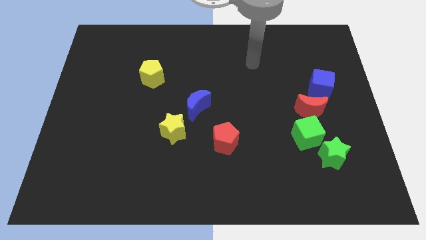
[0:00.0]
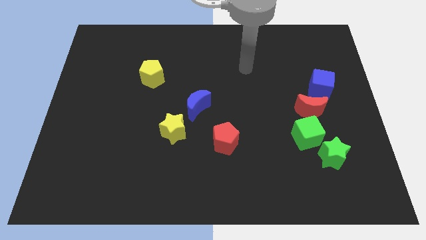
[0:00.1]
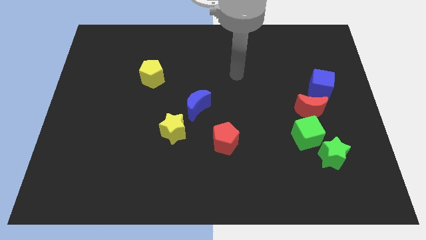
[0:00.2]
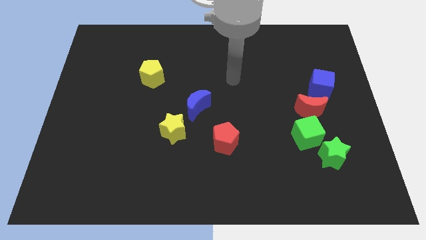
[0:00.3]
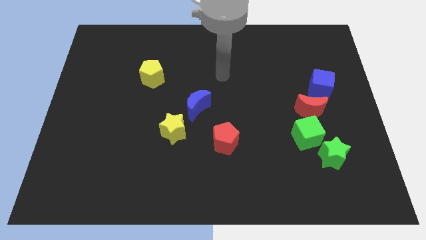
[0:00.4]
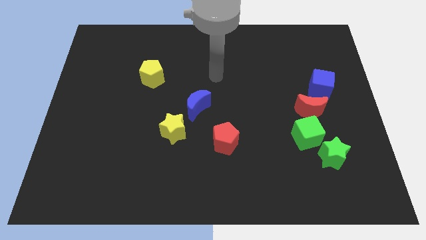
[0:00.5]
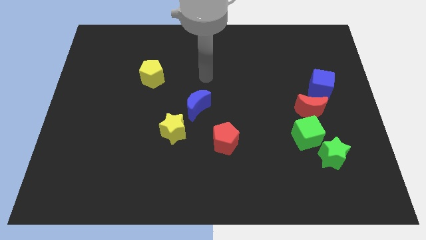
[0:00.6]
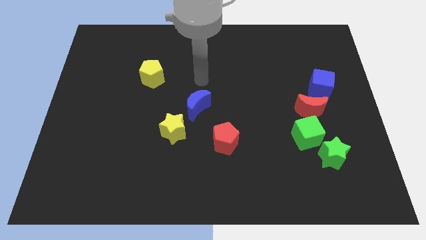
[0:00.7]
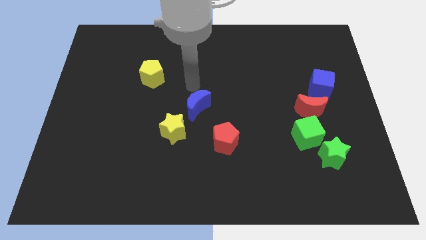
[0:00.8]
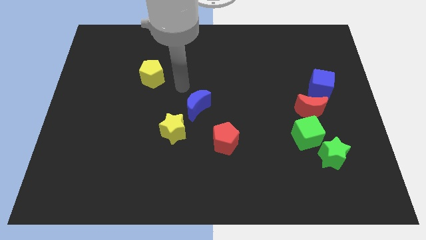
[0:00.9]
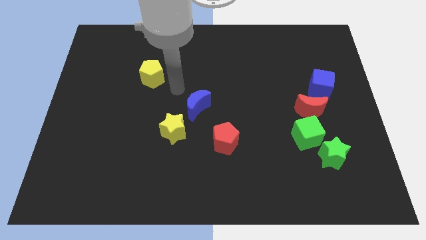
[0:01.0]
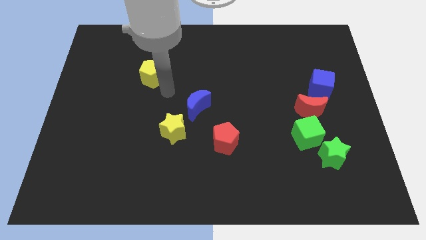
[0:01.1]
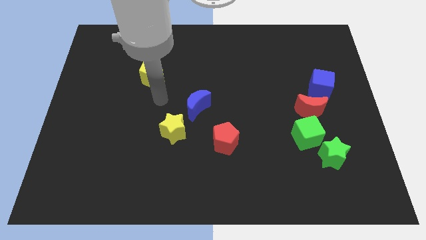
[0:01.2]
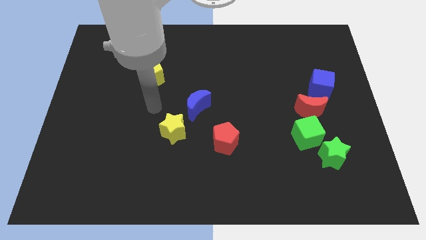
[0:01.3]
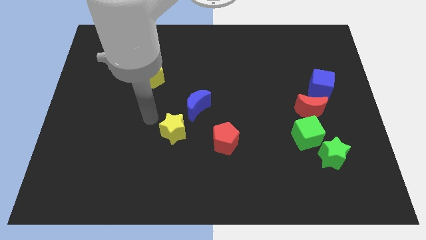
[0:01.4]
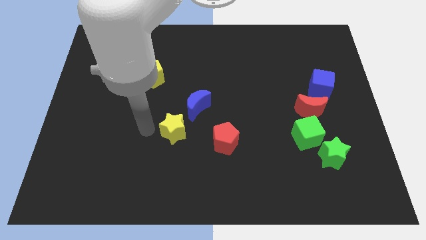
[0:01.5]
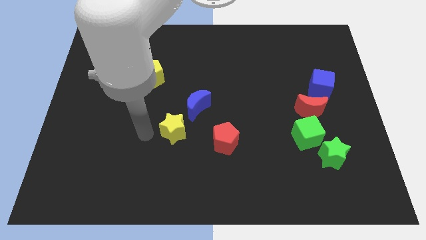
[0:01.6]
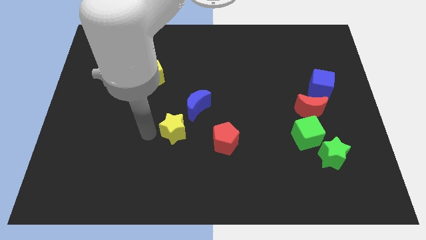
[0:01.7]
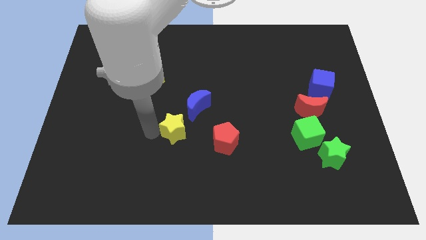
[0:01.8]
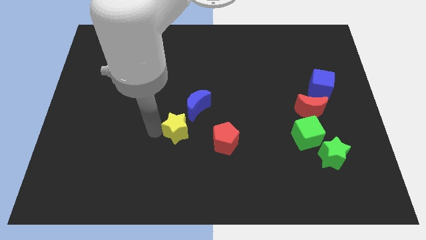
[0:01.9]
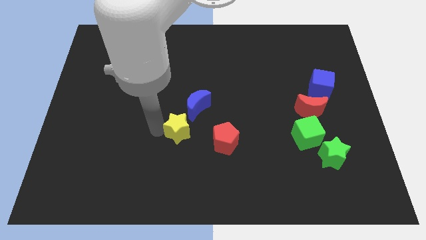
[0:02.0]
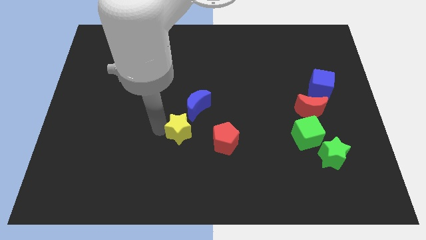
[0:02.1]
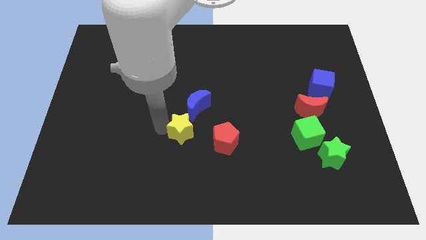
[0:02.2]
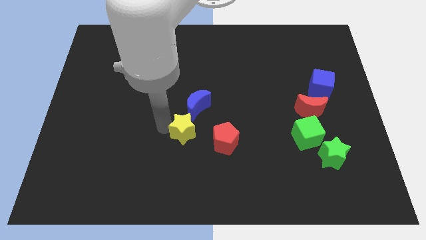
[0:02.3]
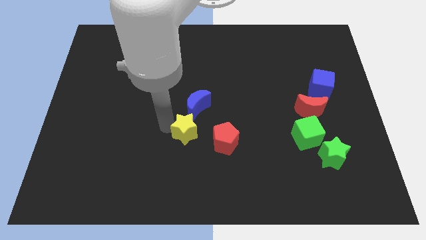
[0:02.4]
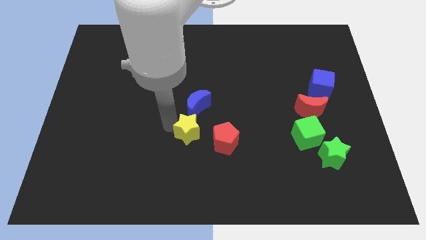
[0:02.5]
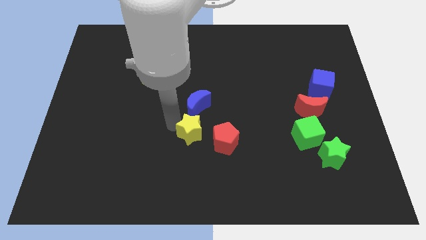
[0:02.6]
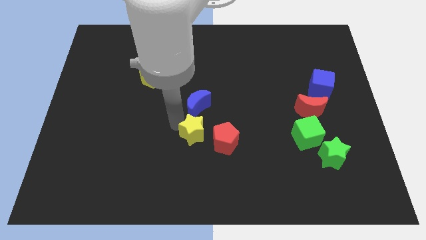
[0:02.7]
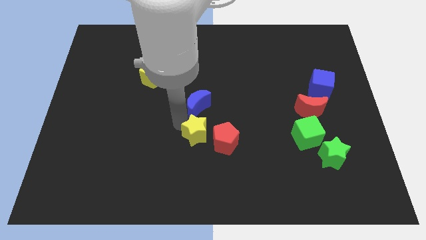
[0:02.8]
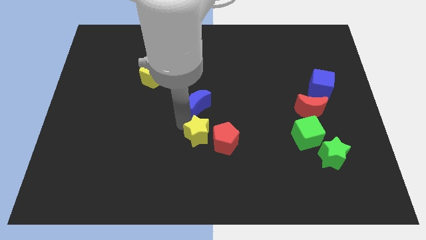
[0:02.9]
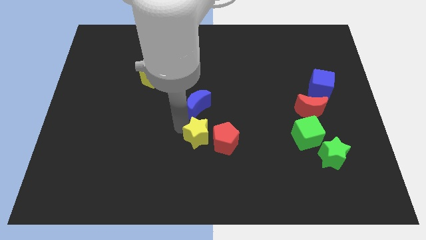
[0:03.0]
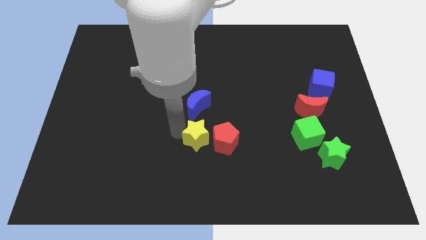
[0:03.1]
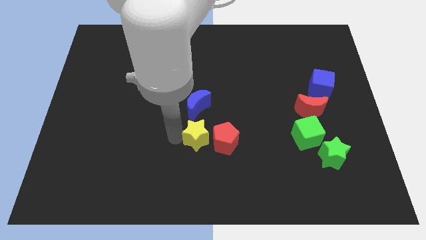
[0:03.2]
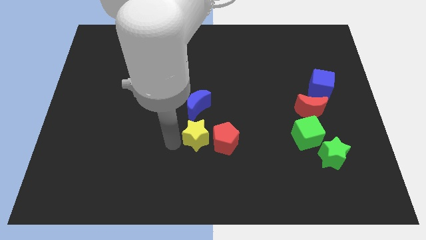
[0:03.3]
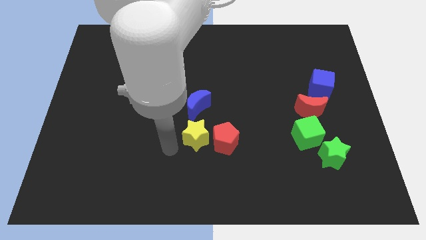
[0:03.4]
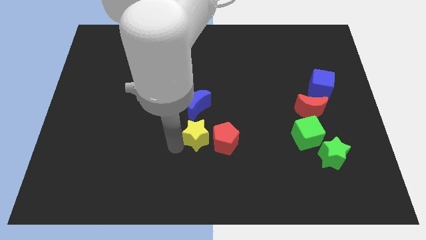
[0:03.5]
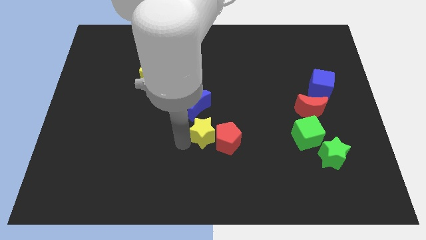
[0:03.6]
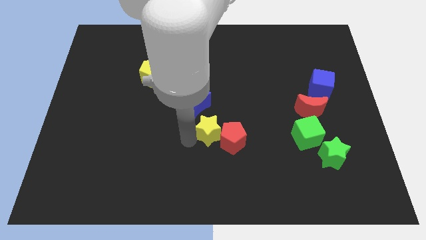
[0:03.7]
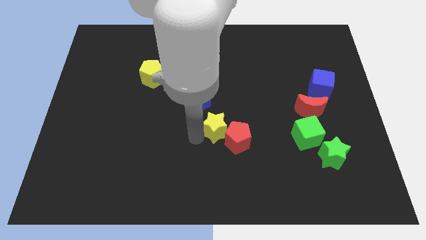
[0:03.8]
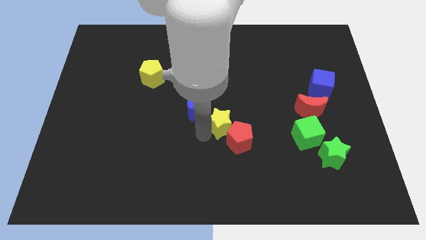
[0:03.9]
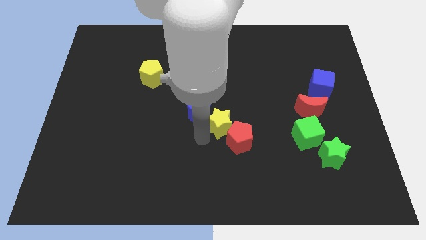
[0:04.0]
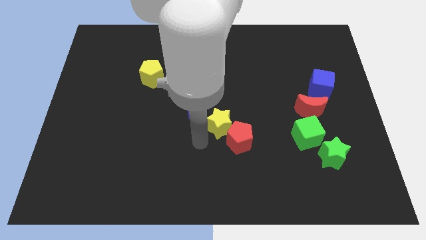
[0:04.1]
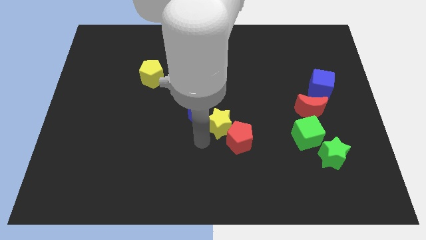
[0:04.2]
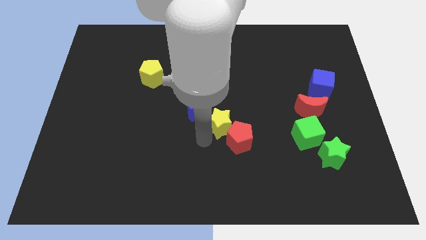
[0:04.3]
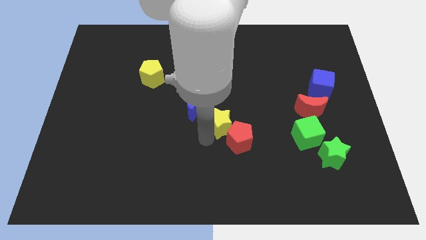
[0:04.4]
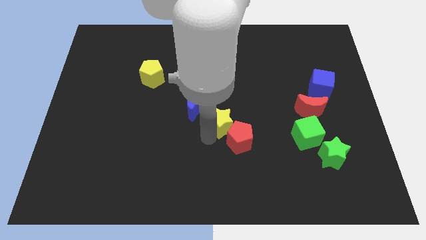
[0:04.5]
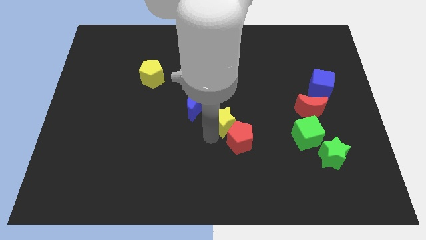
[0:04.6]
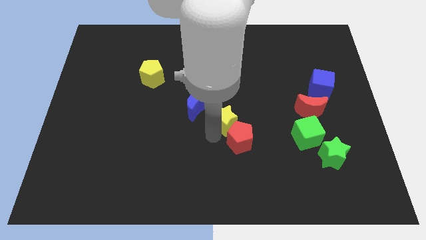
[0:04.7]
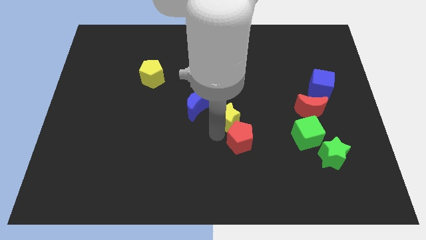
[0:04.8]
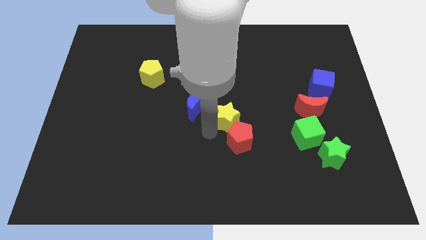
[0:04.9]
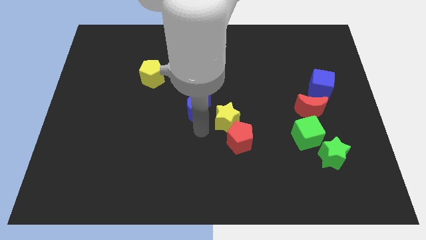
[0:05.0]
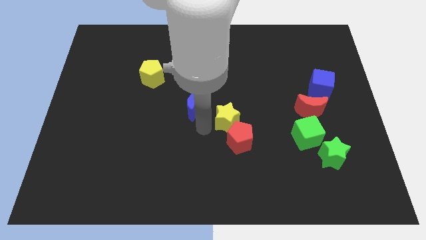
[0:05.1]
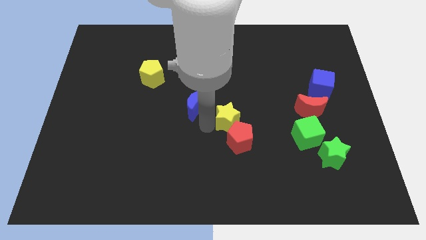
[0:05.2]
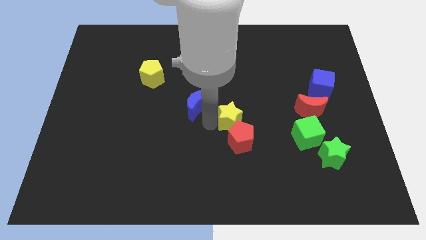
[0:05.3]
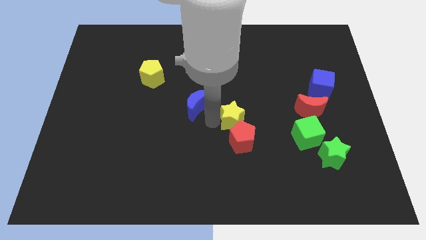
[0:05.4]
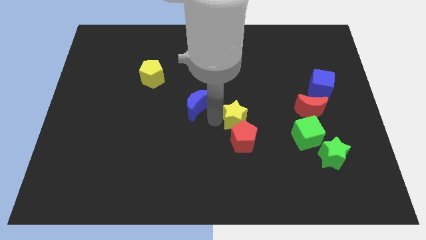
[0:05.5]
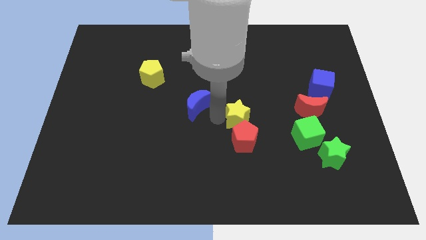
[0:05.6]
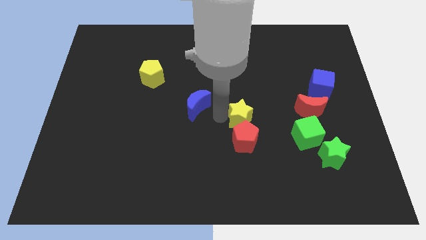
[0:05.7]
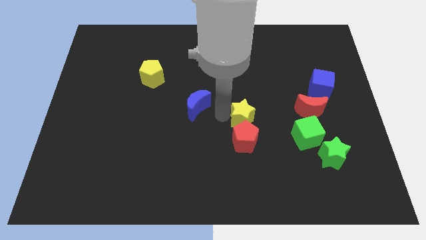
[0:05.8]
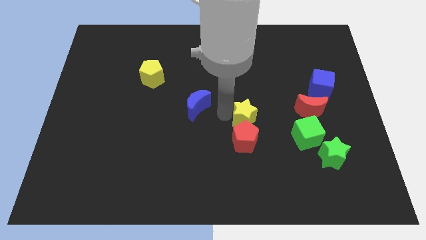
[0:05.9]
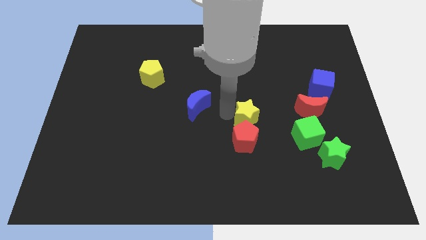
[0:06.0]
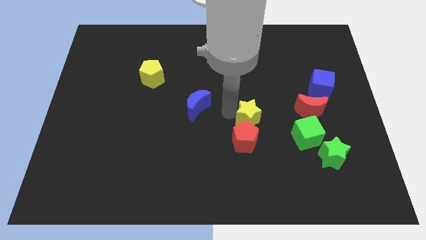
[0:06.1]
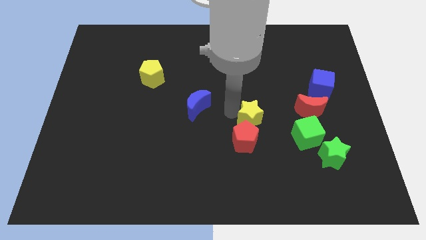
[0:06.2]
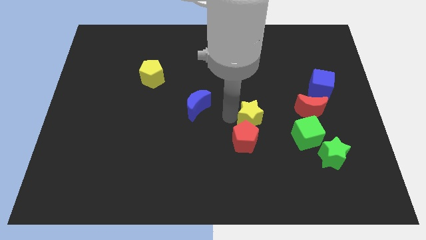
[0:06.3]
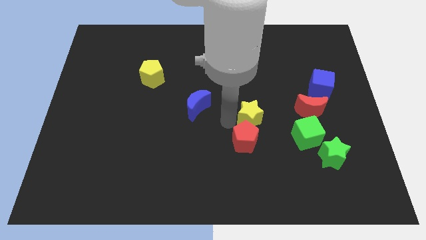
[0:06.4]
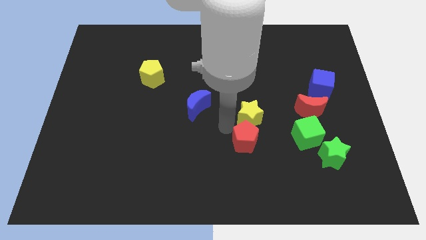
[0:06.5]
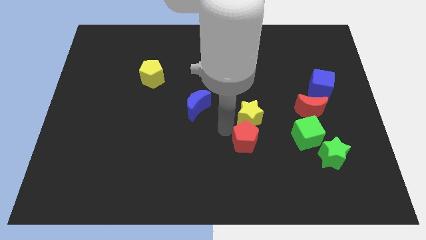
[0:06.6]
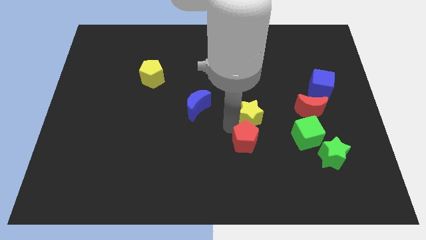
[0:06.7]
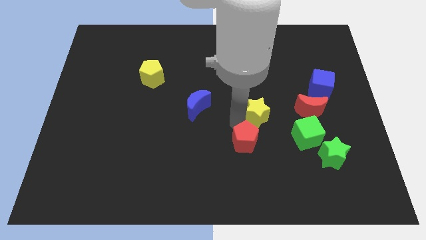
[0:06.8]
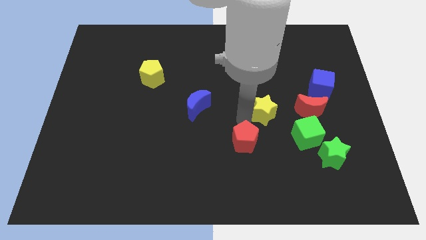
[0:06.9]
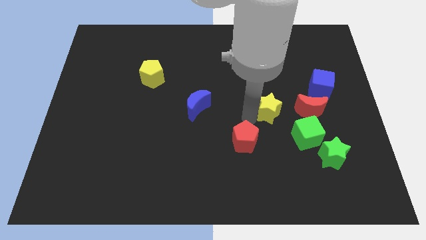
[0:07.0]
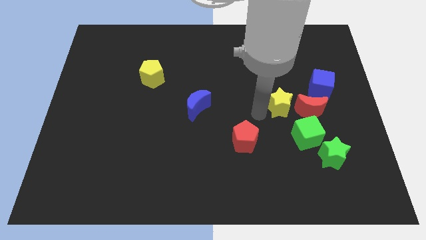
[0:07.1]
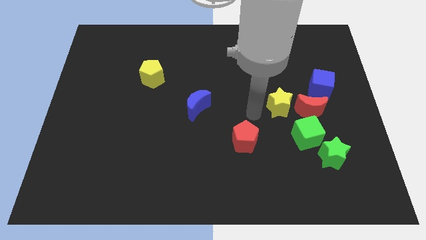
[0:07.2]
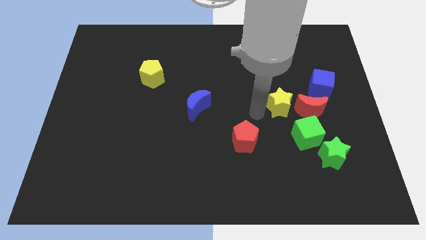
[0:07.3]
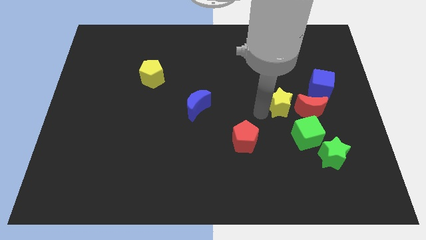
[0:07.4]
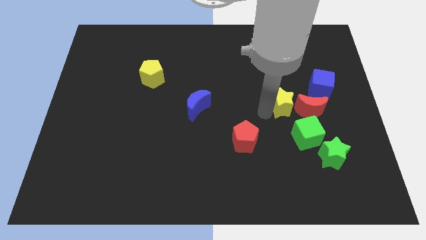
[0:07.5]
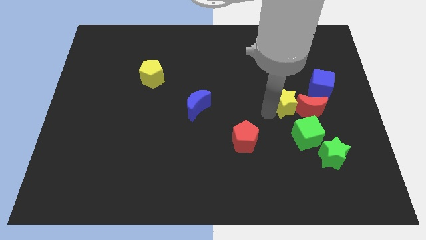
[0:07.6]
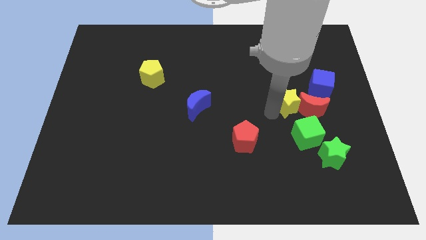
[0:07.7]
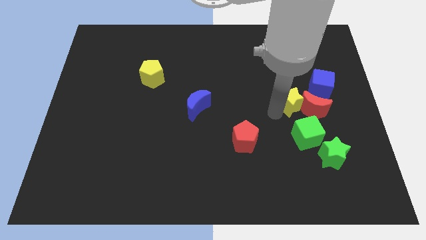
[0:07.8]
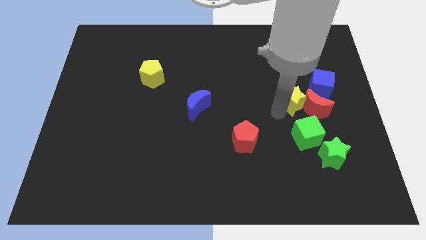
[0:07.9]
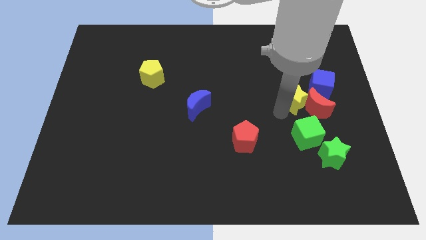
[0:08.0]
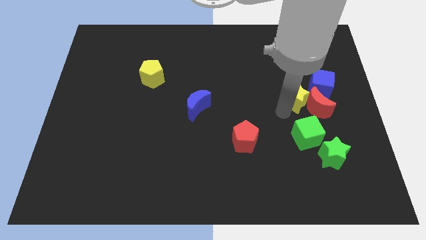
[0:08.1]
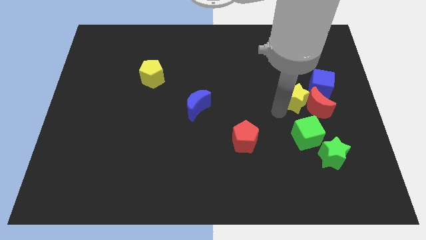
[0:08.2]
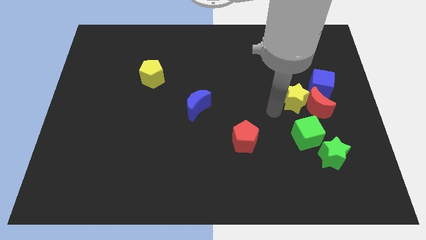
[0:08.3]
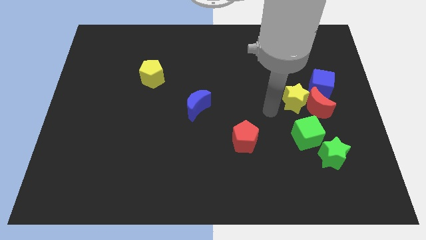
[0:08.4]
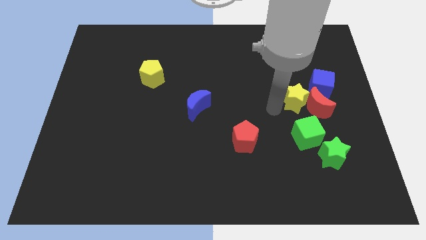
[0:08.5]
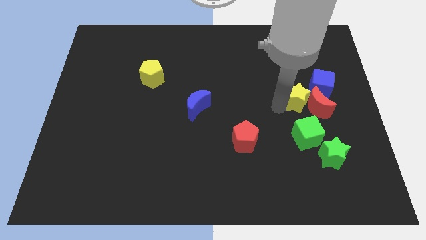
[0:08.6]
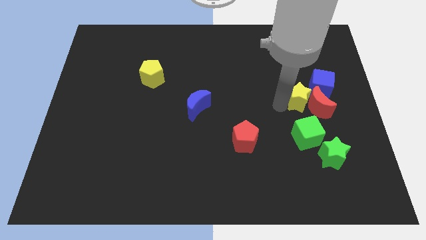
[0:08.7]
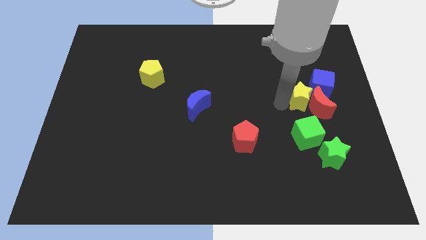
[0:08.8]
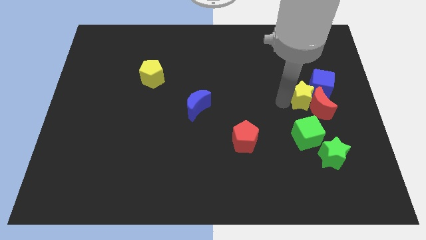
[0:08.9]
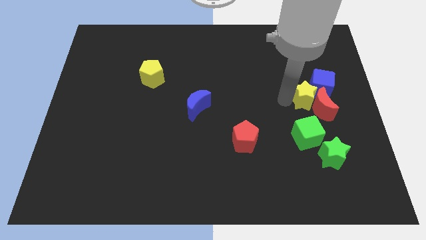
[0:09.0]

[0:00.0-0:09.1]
push the yellow star next to the blue cube
